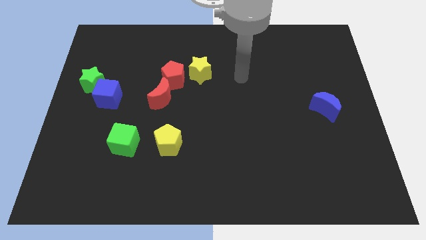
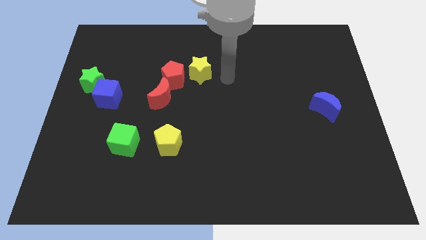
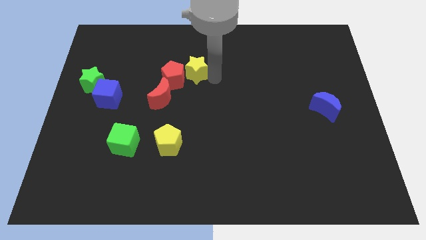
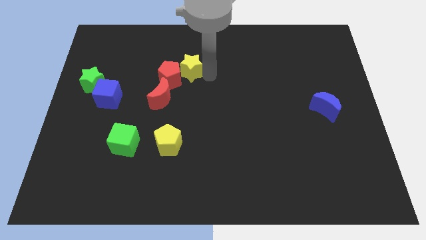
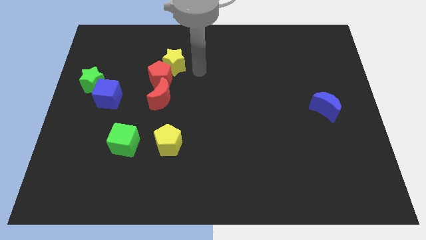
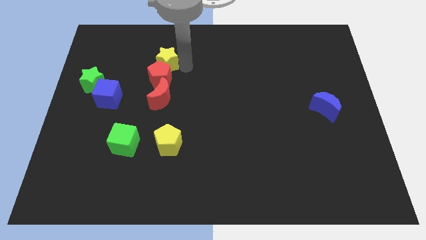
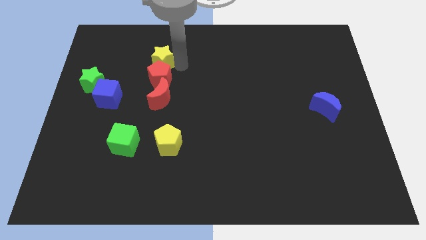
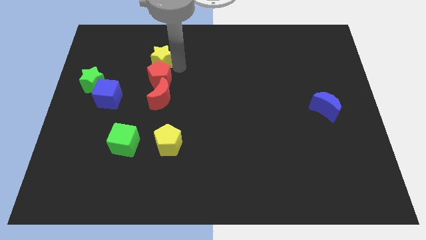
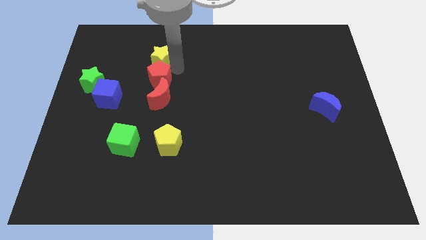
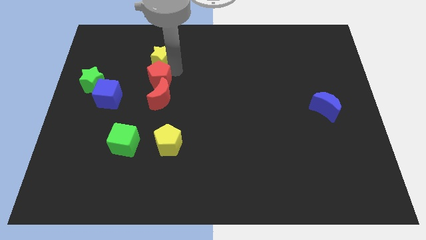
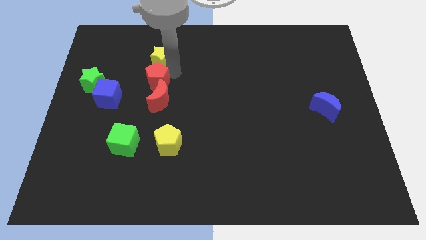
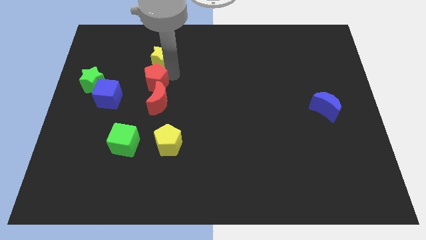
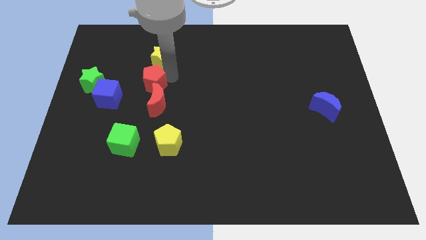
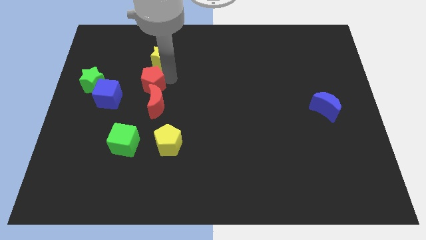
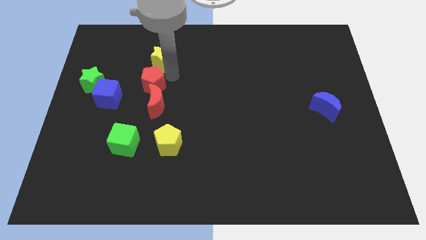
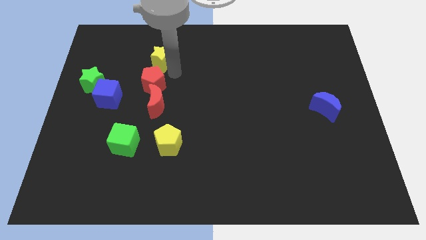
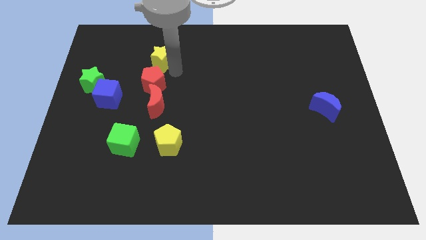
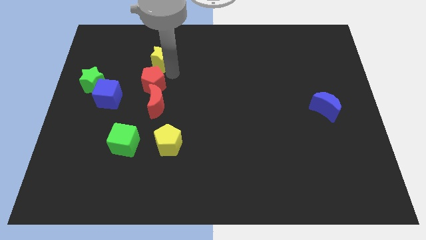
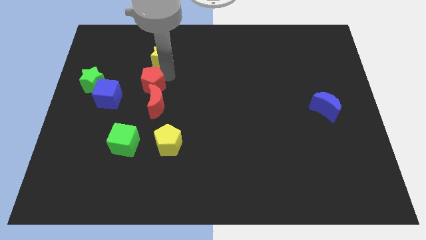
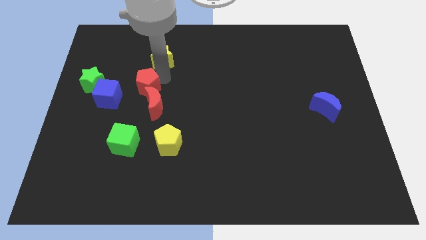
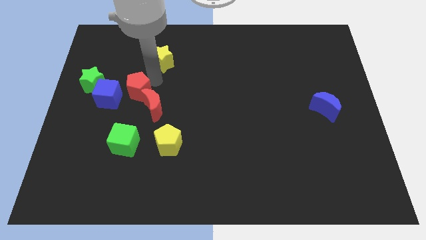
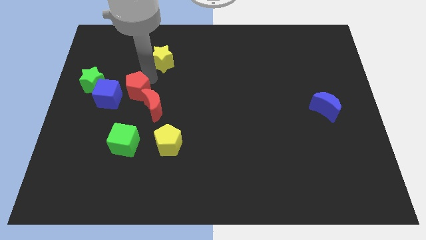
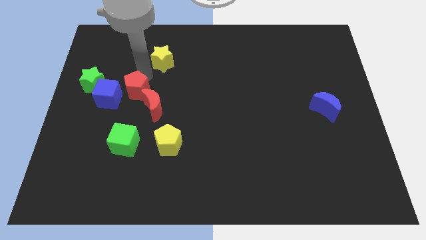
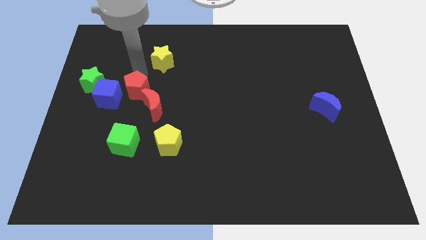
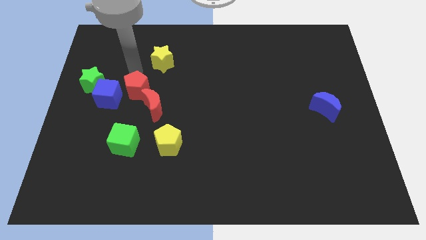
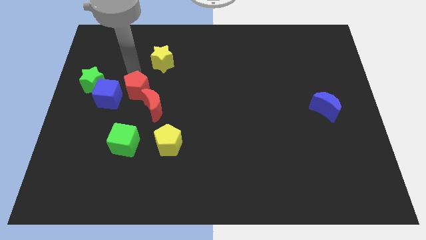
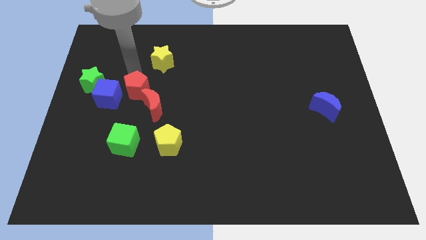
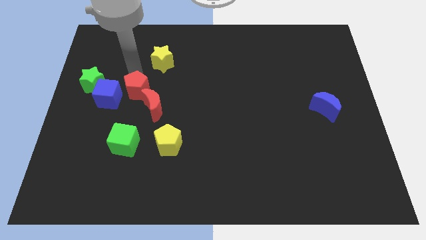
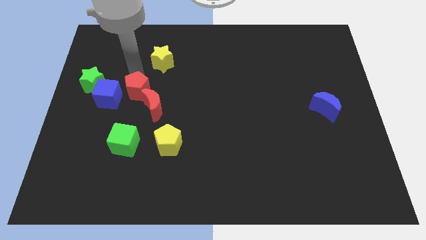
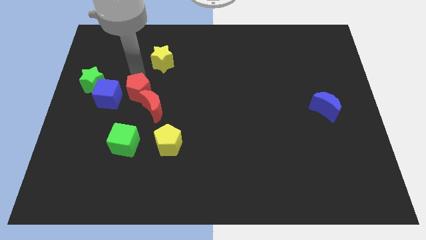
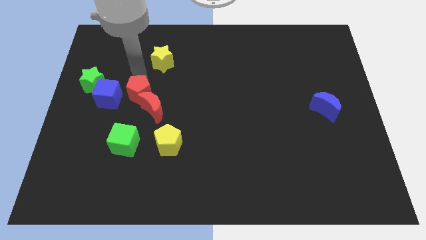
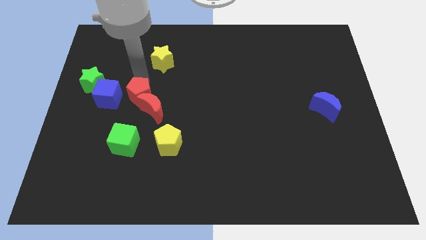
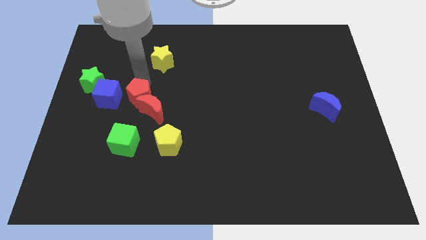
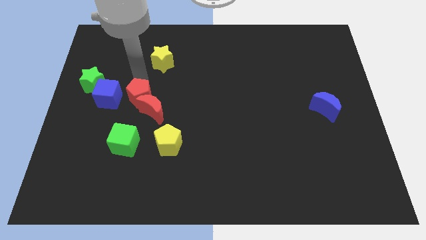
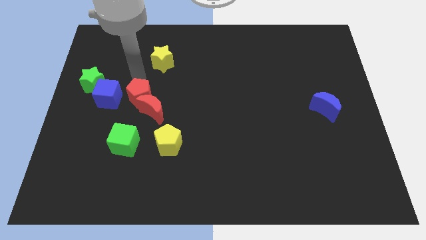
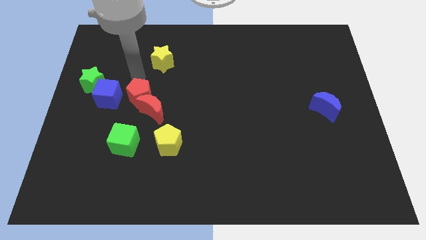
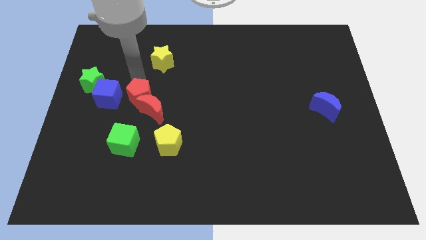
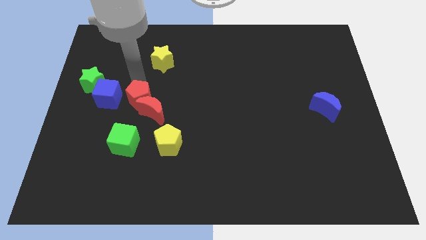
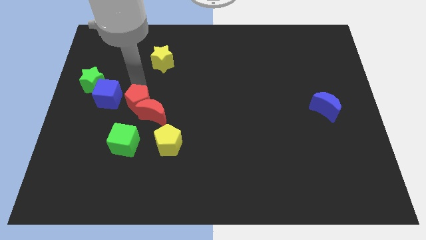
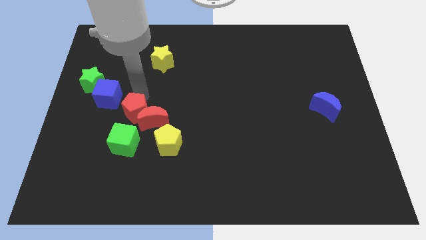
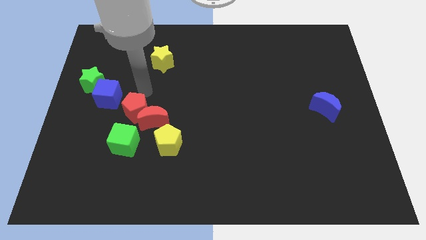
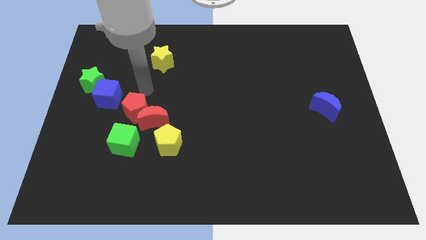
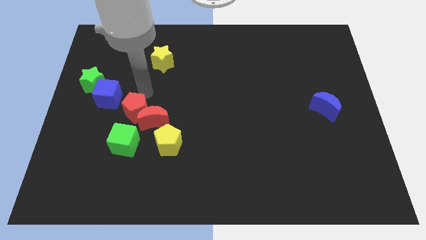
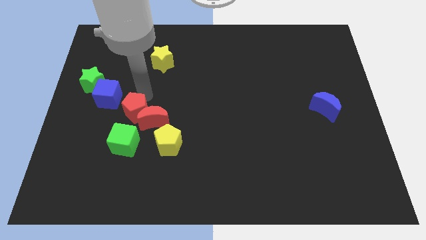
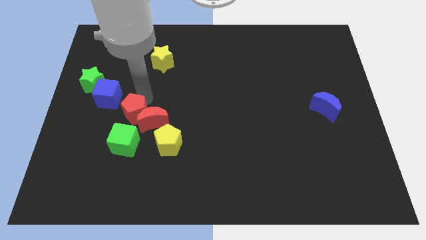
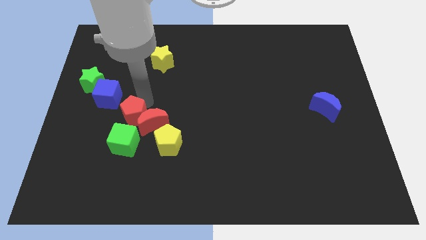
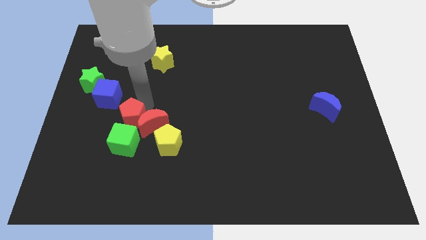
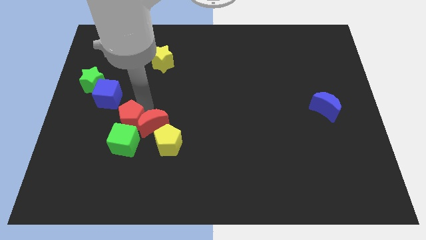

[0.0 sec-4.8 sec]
slide the red pentagon close to the green cube

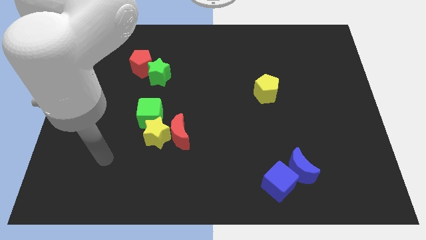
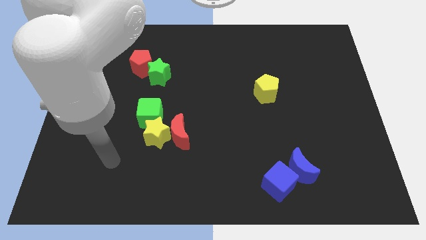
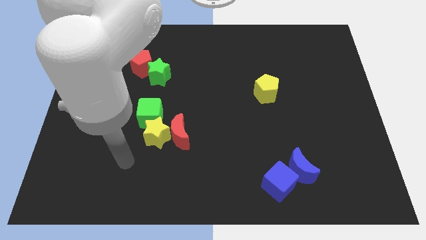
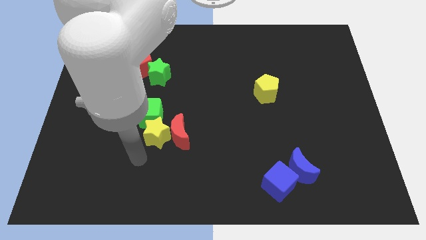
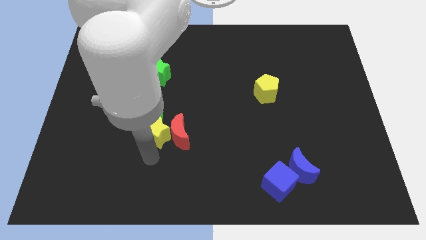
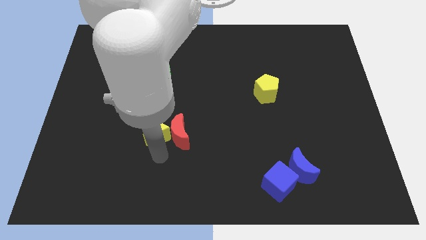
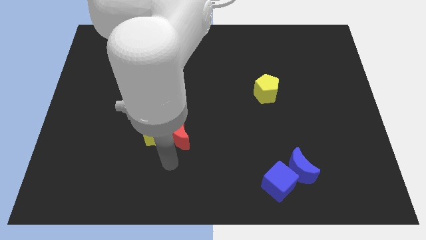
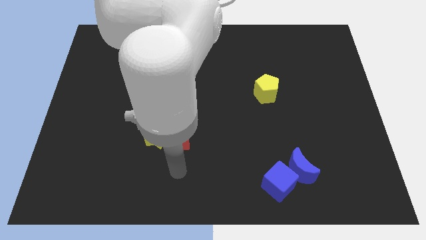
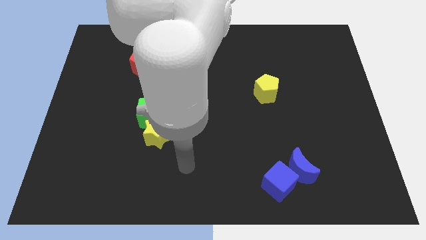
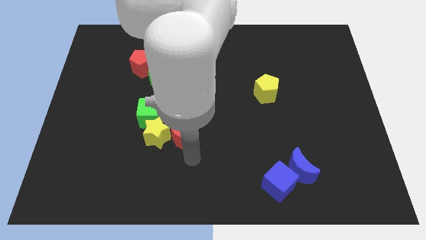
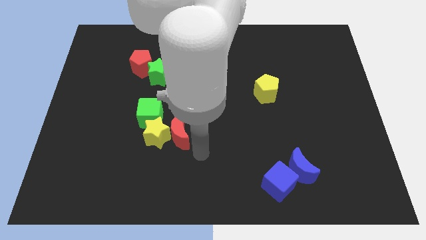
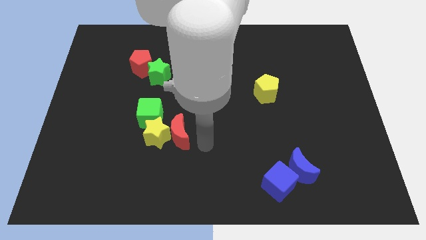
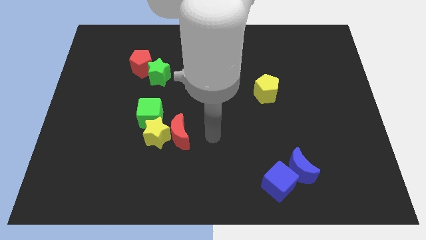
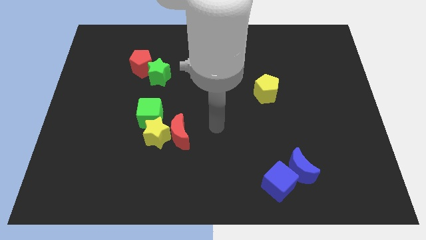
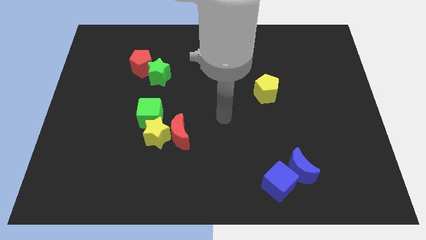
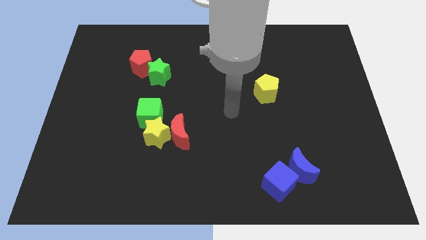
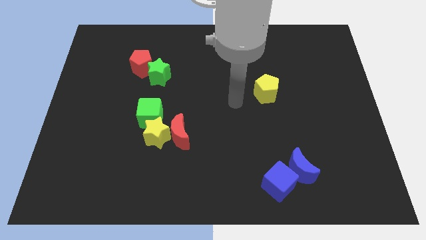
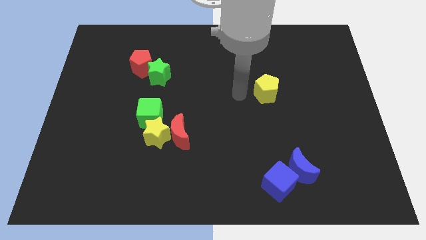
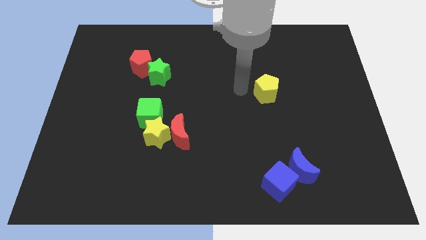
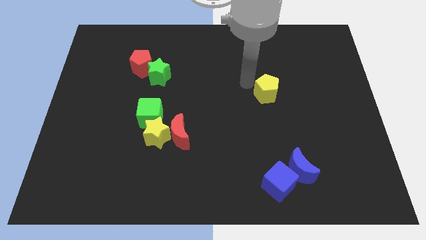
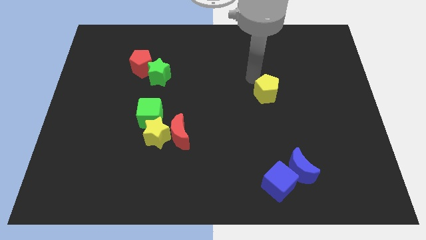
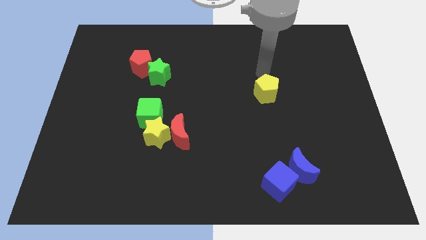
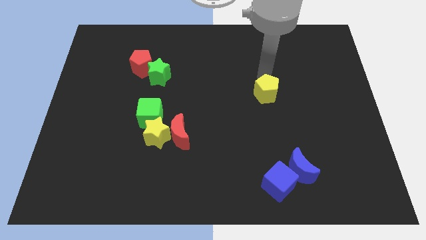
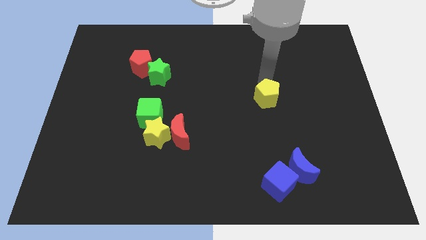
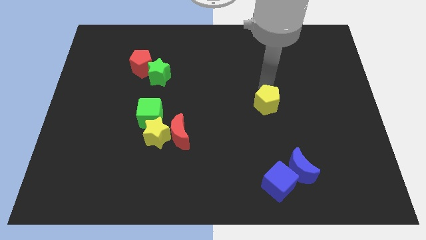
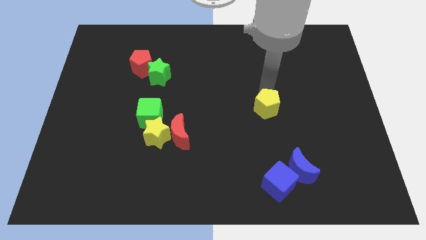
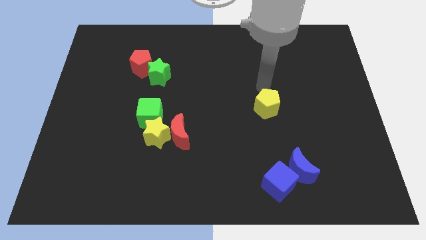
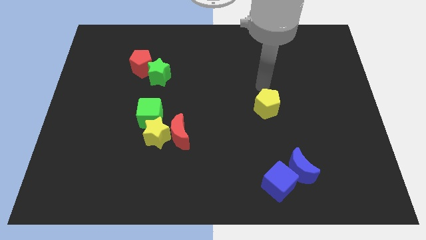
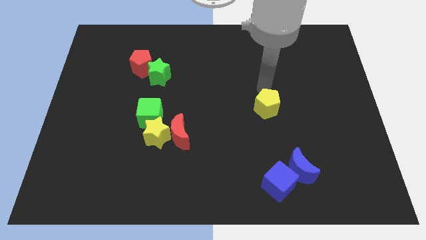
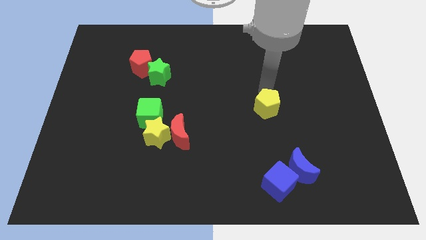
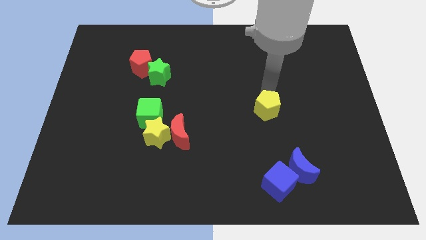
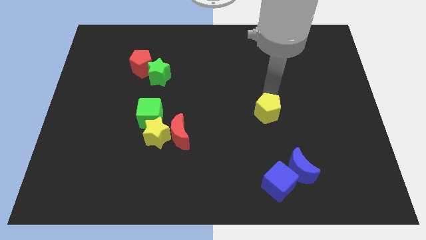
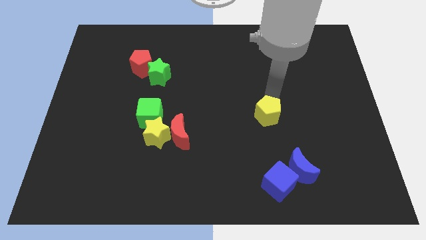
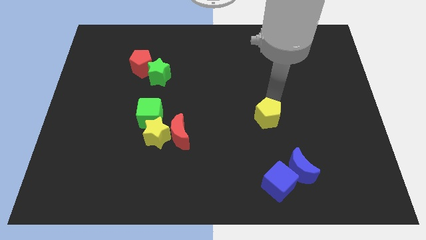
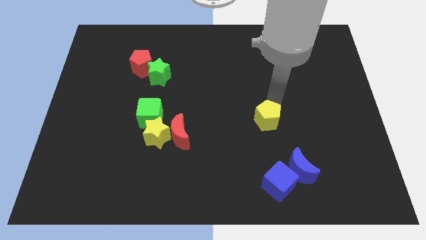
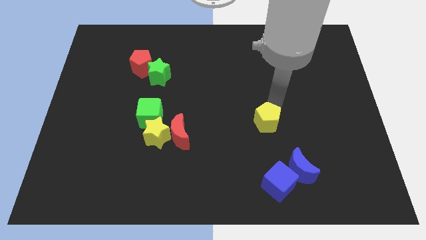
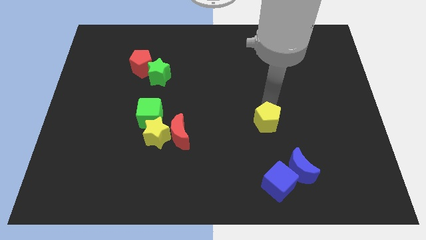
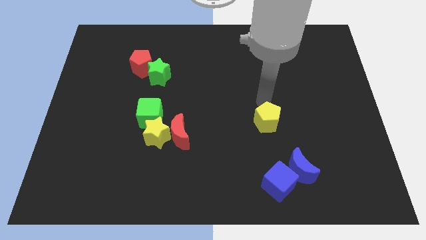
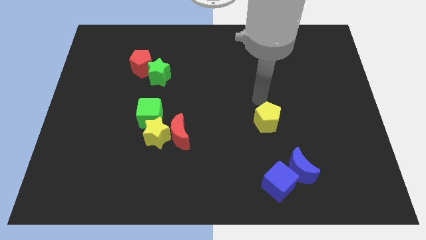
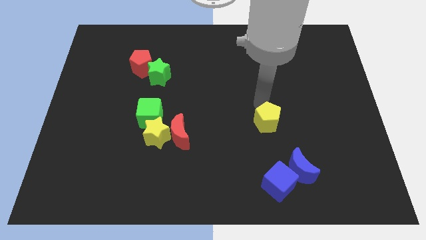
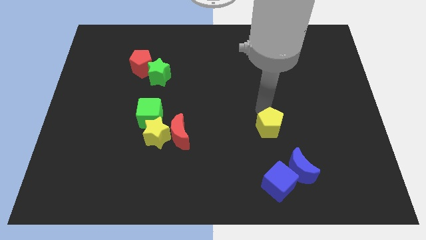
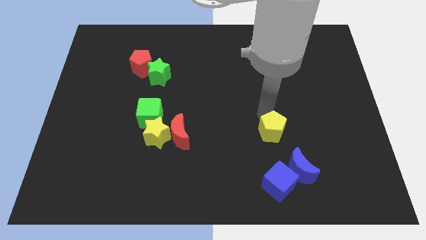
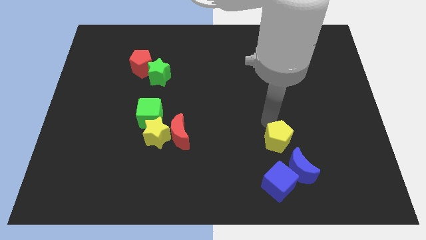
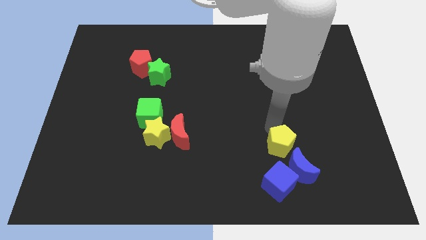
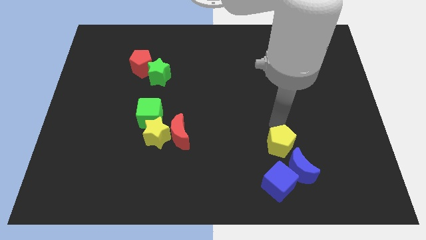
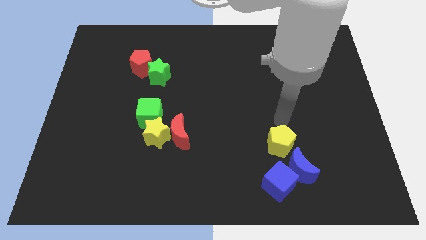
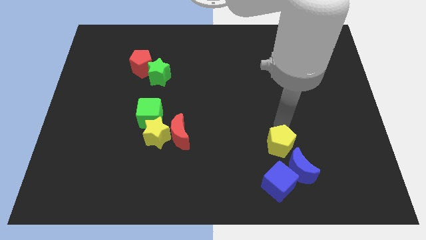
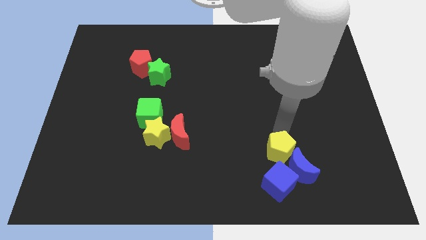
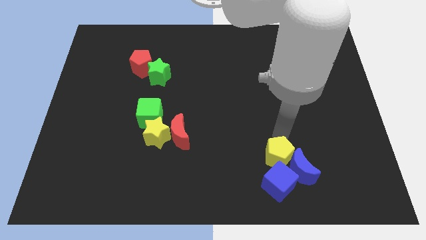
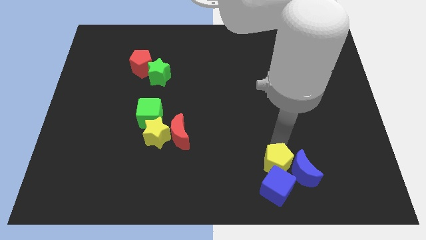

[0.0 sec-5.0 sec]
push the yellow pentagon close to the blue cube
